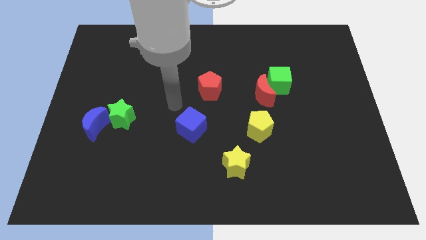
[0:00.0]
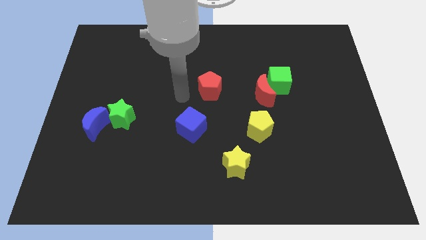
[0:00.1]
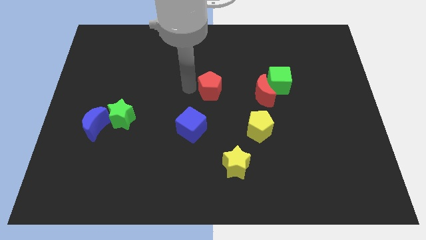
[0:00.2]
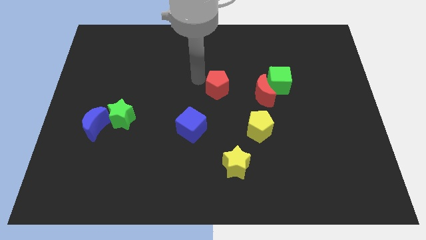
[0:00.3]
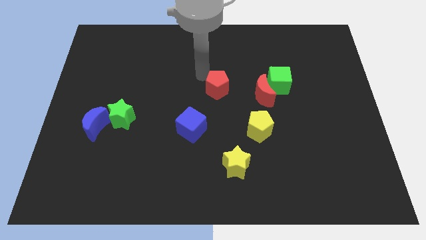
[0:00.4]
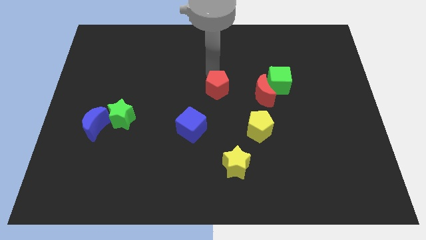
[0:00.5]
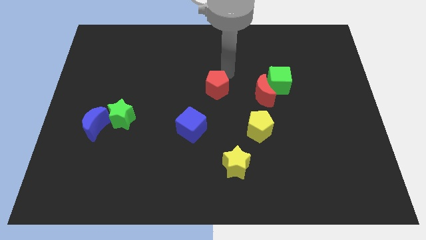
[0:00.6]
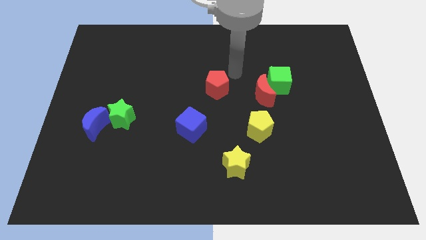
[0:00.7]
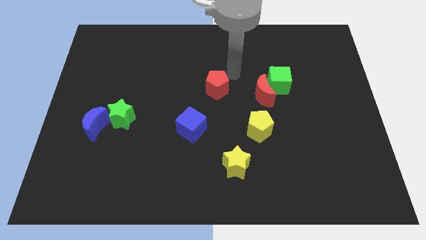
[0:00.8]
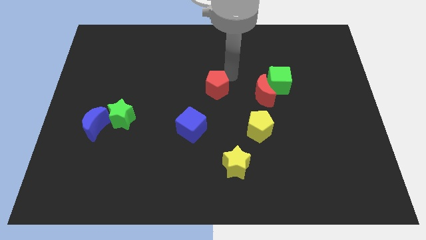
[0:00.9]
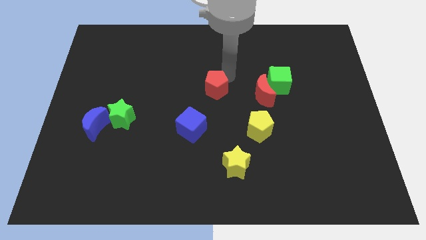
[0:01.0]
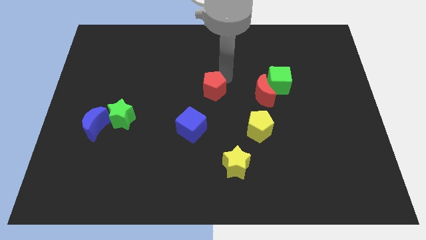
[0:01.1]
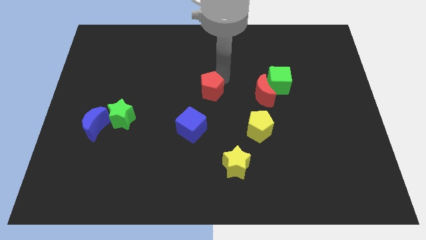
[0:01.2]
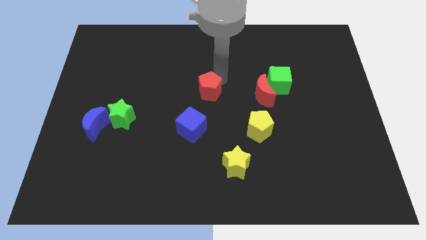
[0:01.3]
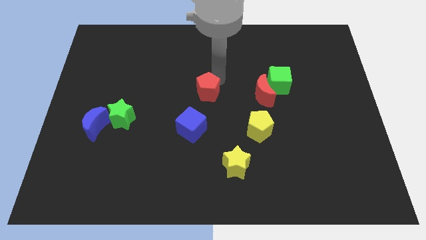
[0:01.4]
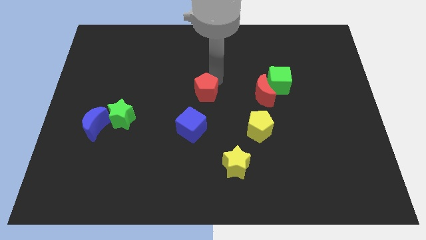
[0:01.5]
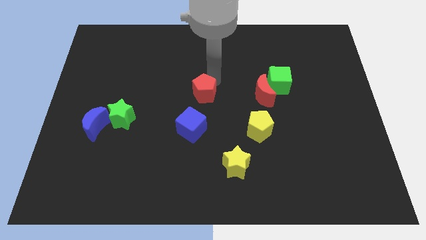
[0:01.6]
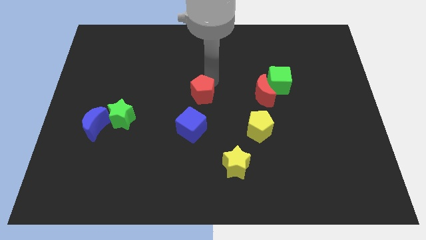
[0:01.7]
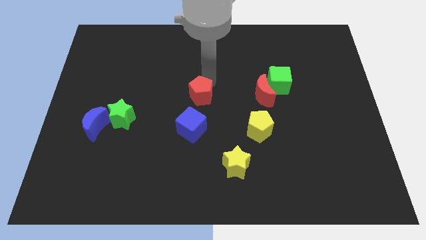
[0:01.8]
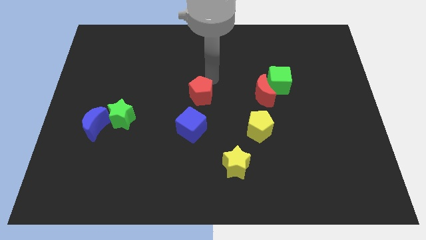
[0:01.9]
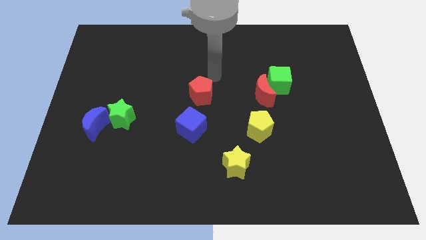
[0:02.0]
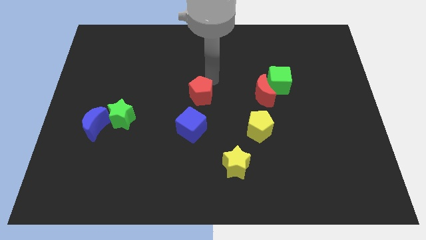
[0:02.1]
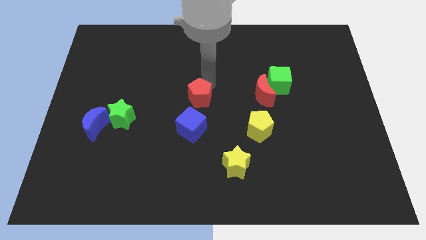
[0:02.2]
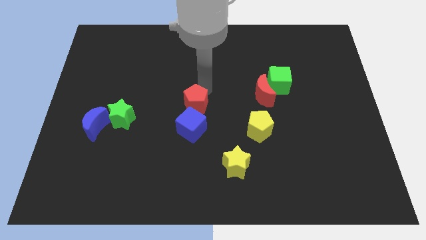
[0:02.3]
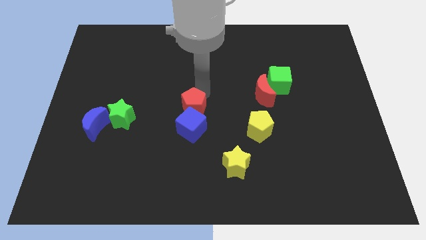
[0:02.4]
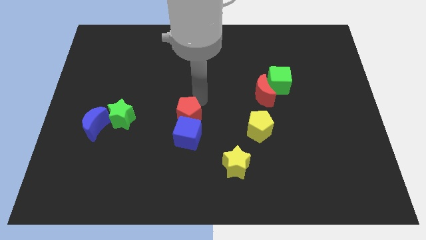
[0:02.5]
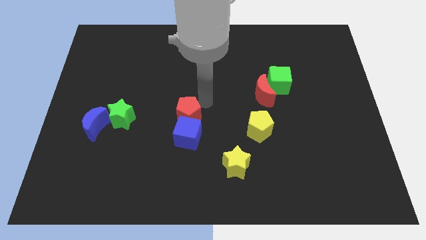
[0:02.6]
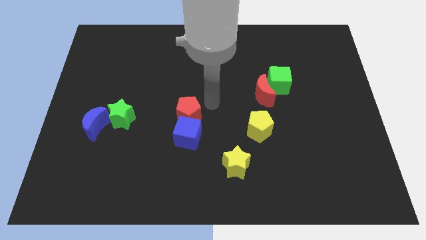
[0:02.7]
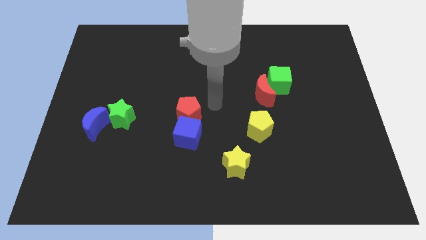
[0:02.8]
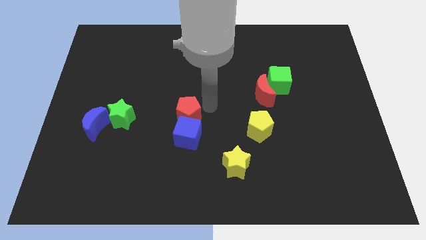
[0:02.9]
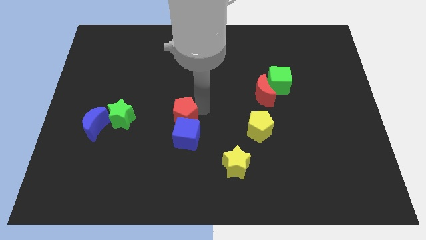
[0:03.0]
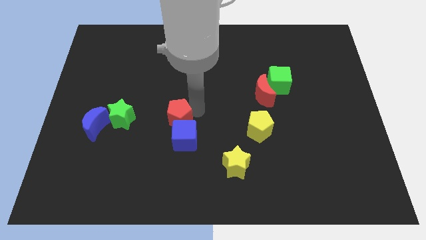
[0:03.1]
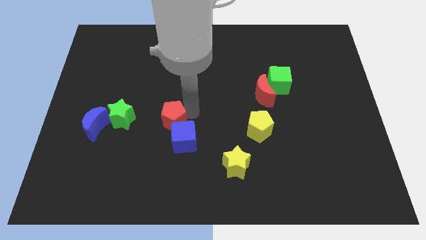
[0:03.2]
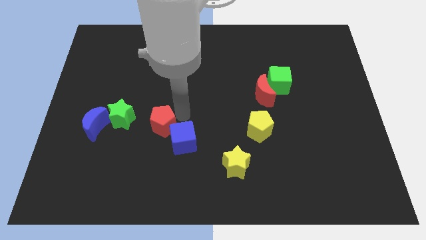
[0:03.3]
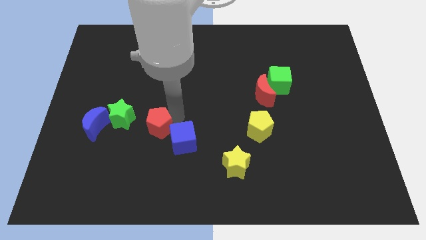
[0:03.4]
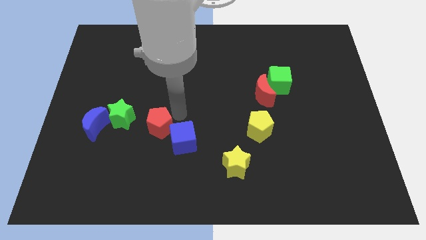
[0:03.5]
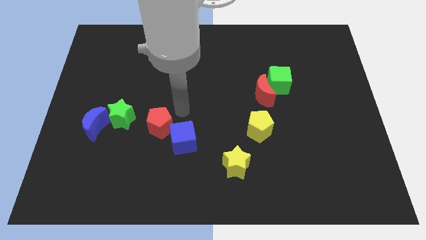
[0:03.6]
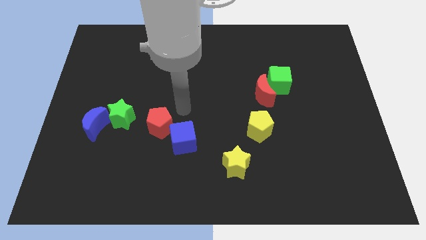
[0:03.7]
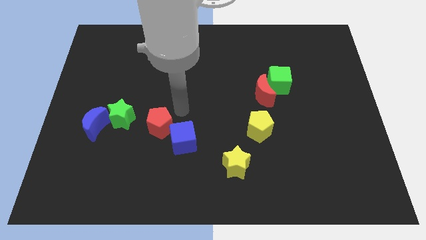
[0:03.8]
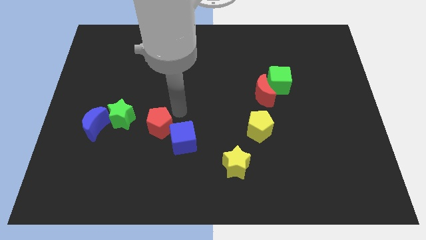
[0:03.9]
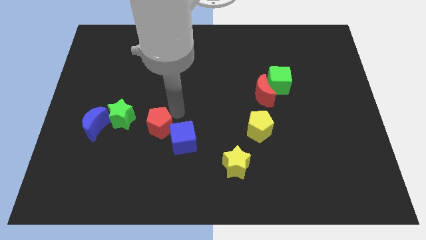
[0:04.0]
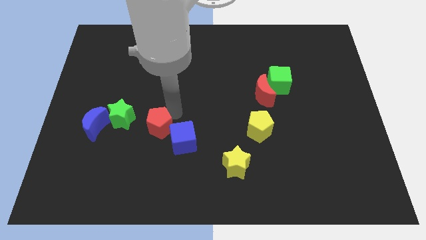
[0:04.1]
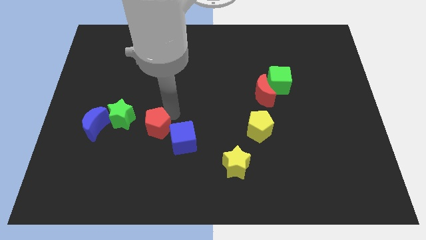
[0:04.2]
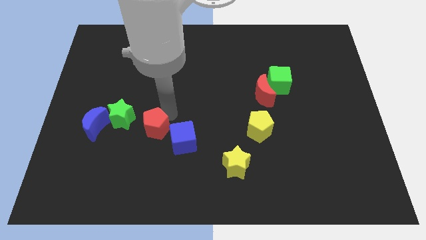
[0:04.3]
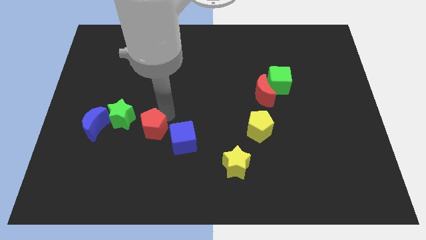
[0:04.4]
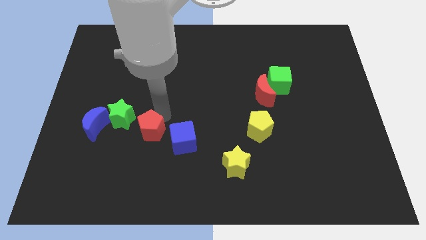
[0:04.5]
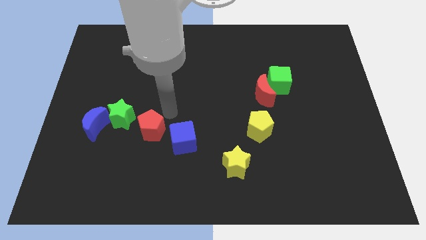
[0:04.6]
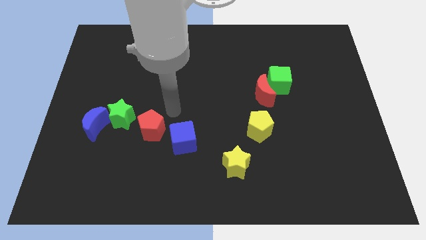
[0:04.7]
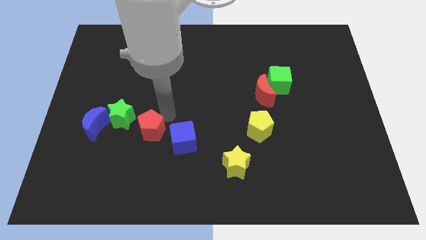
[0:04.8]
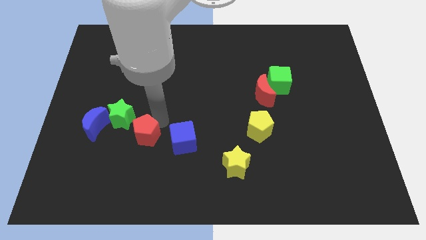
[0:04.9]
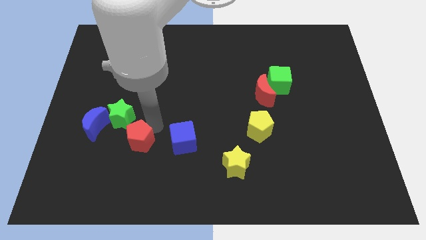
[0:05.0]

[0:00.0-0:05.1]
slide the red pentagon downwards and then to the left

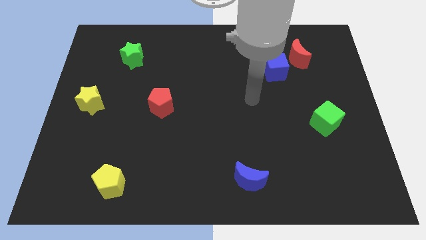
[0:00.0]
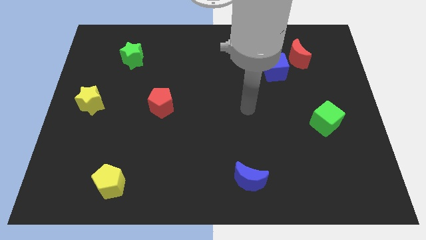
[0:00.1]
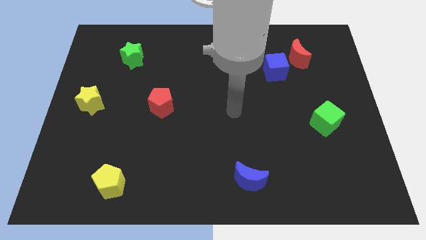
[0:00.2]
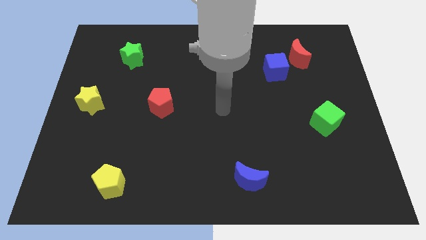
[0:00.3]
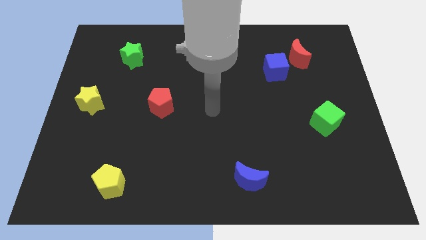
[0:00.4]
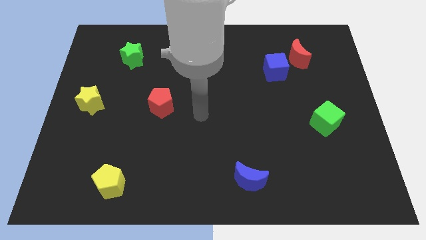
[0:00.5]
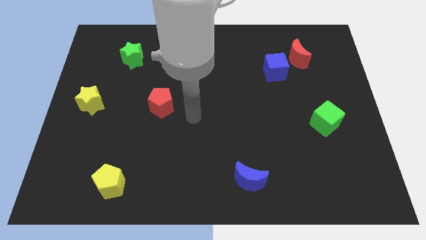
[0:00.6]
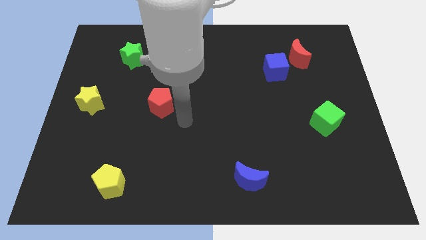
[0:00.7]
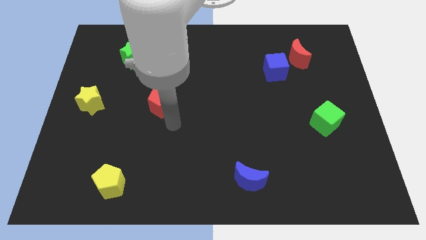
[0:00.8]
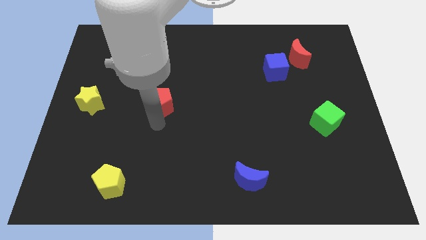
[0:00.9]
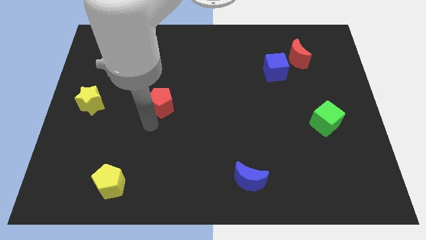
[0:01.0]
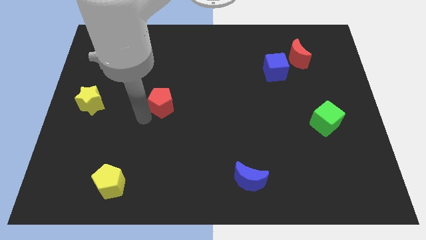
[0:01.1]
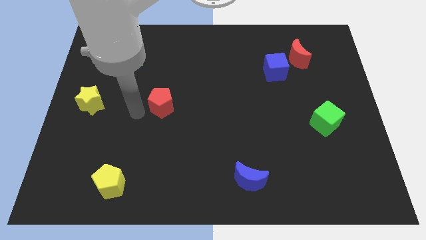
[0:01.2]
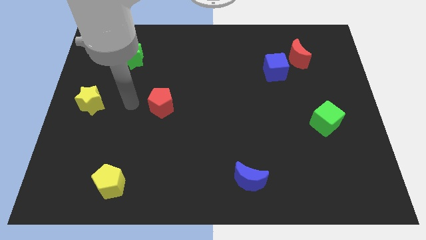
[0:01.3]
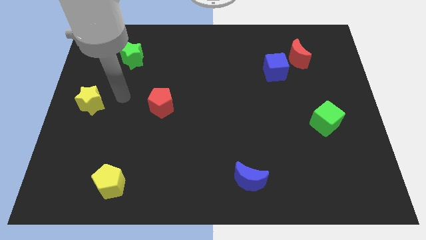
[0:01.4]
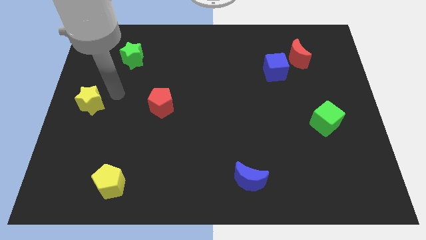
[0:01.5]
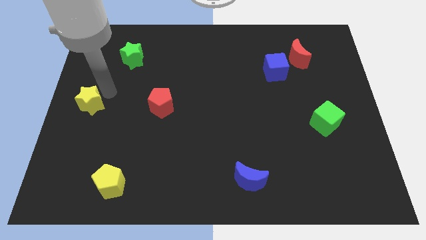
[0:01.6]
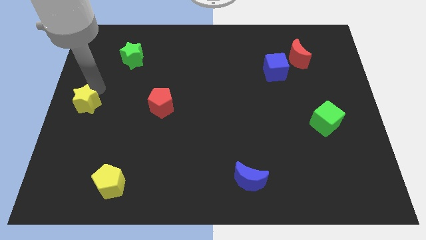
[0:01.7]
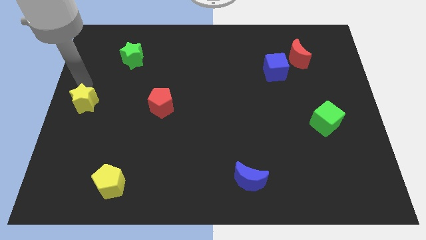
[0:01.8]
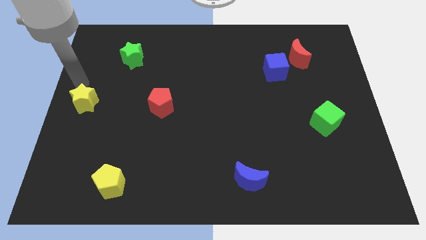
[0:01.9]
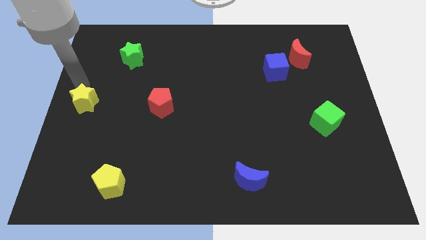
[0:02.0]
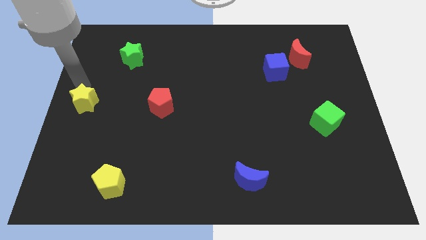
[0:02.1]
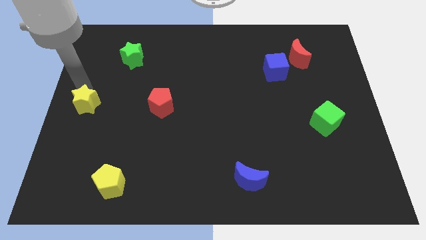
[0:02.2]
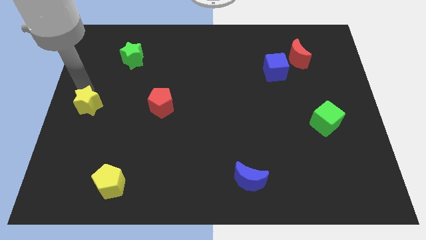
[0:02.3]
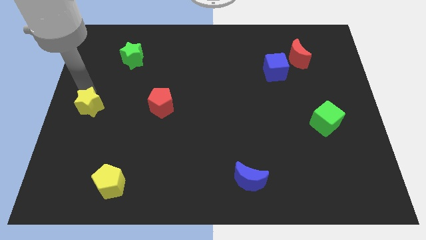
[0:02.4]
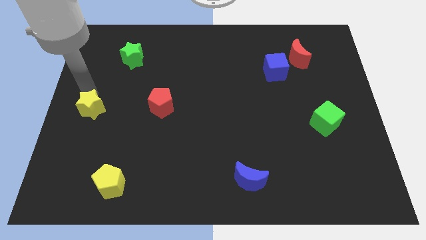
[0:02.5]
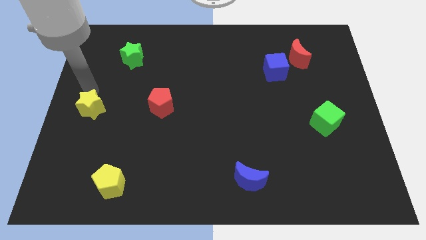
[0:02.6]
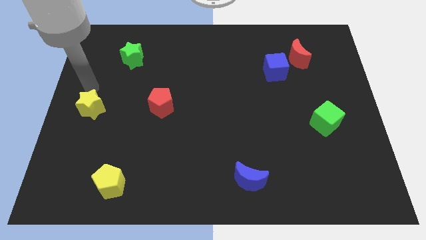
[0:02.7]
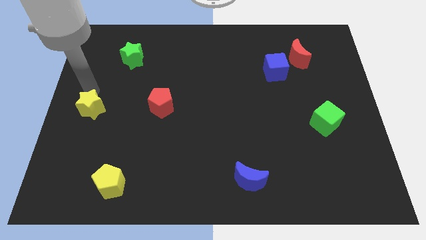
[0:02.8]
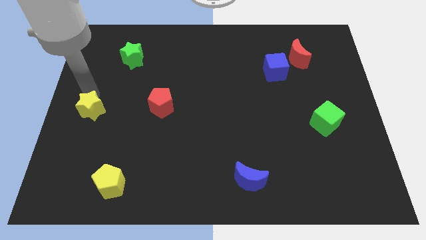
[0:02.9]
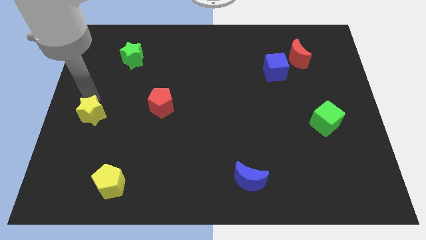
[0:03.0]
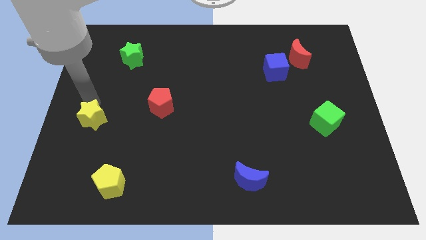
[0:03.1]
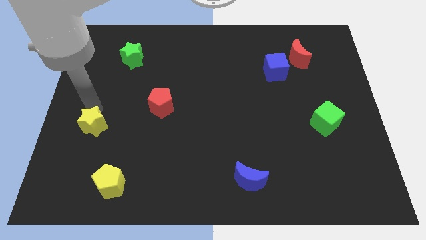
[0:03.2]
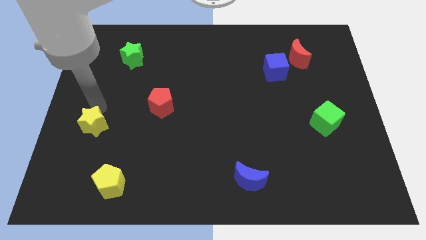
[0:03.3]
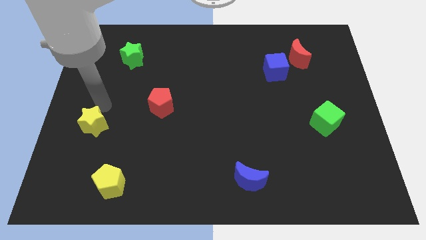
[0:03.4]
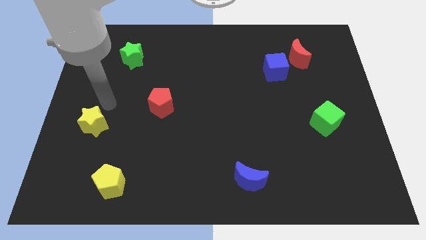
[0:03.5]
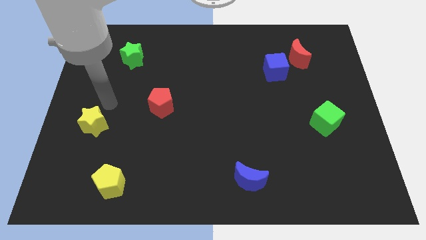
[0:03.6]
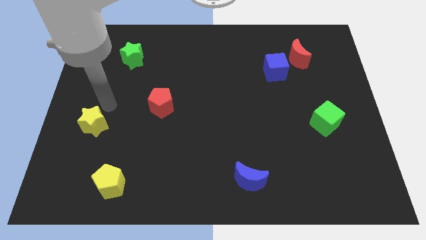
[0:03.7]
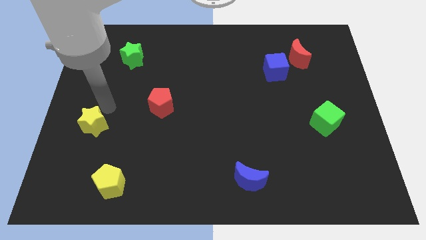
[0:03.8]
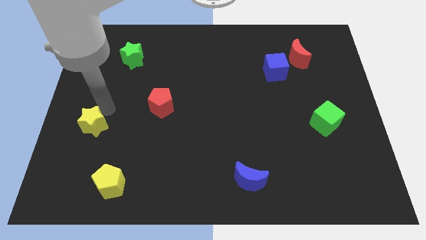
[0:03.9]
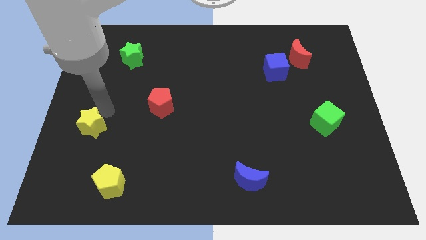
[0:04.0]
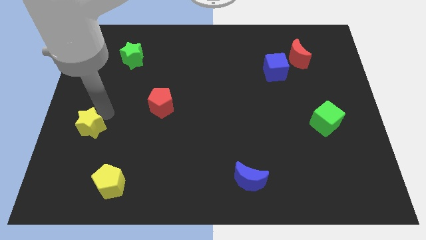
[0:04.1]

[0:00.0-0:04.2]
slide the yellow star downwards a bit
